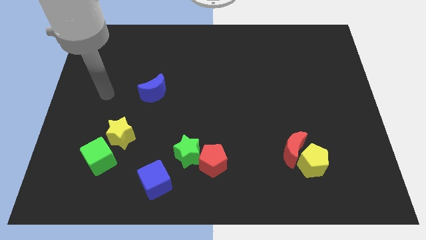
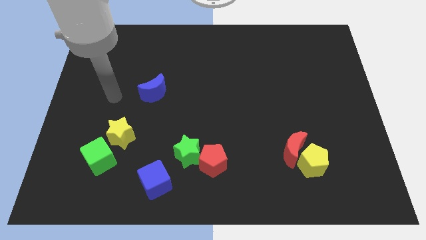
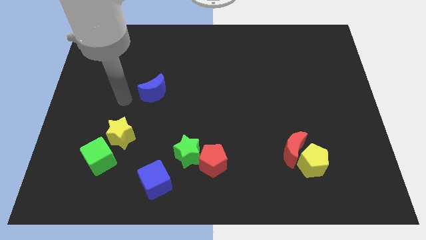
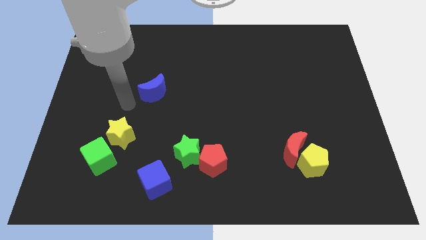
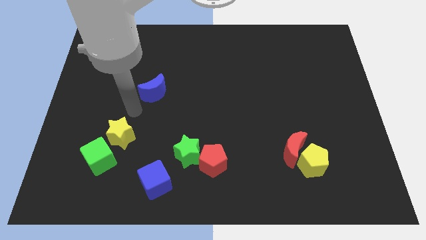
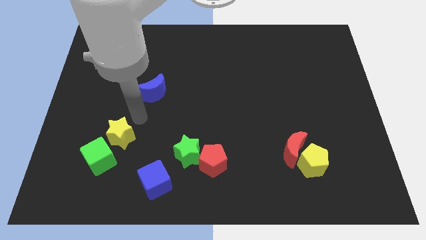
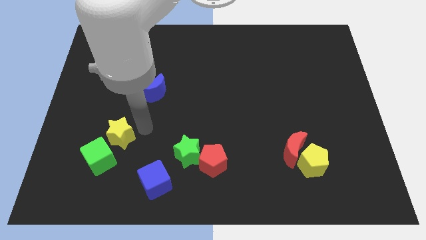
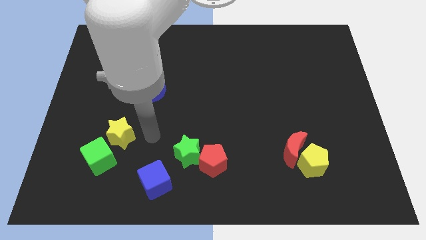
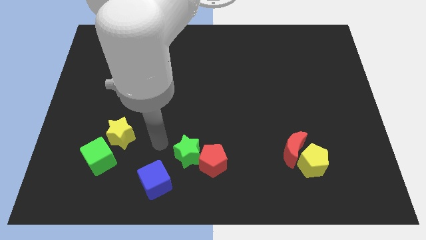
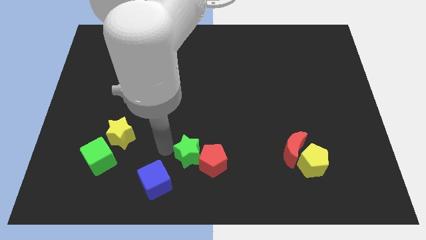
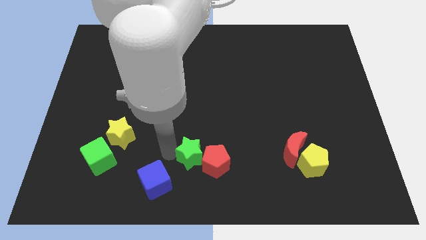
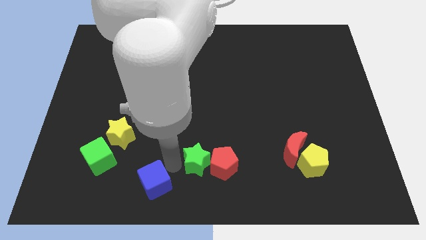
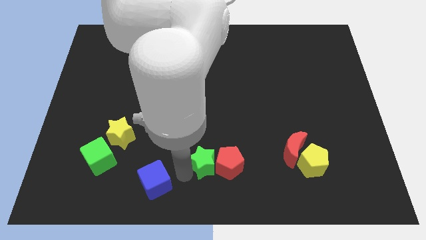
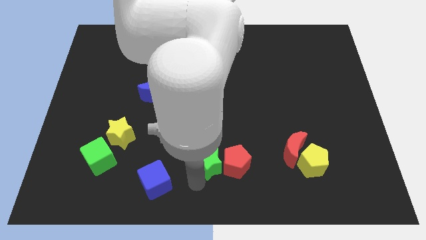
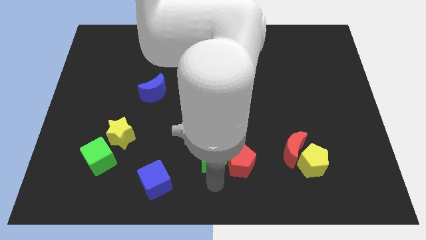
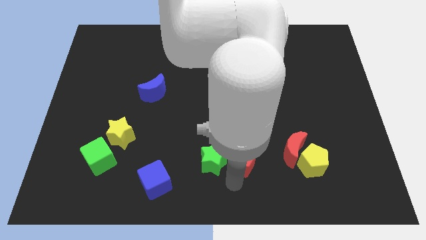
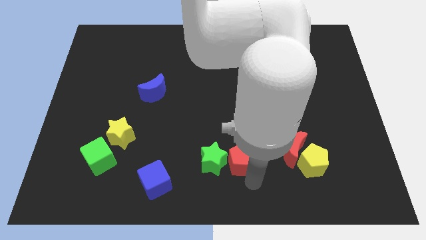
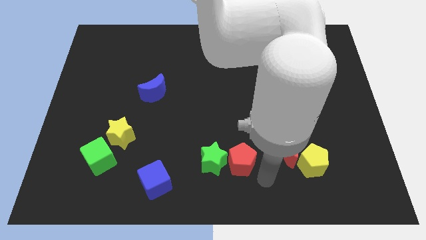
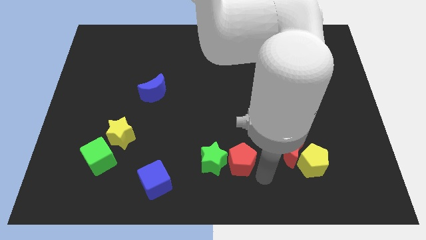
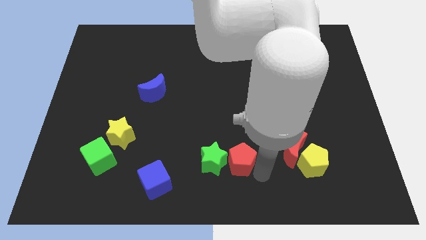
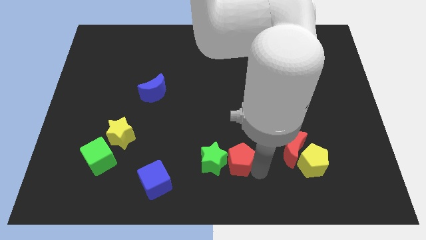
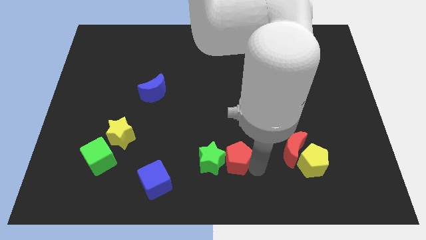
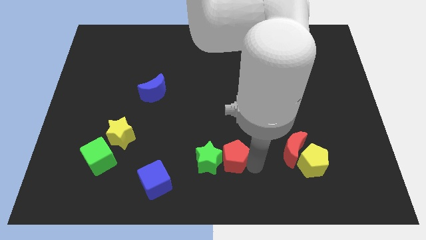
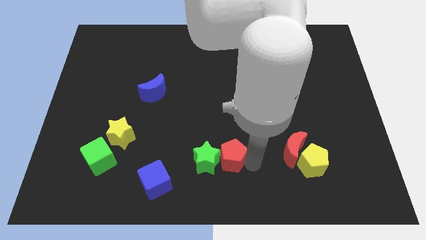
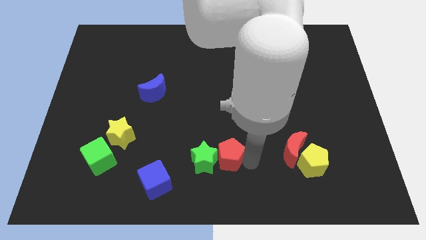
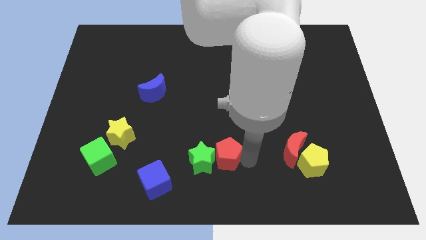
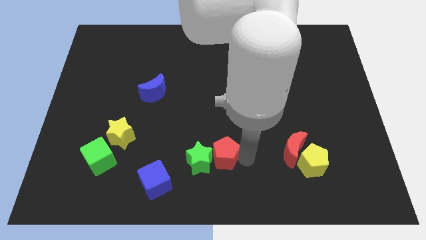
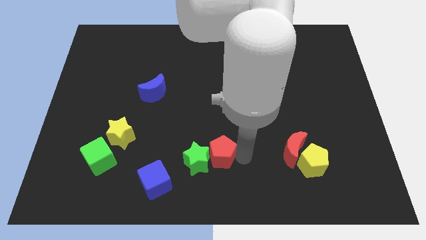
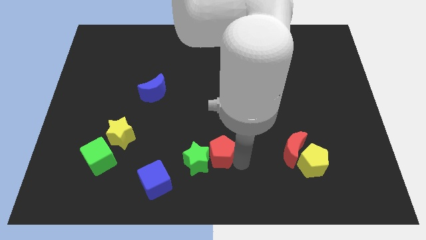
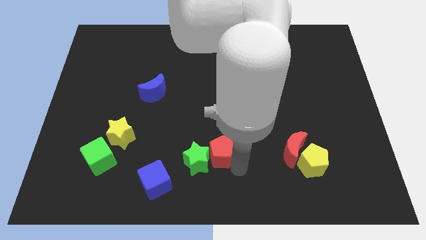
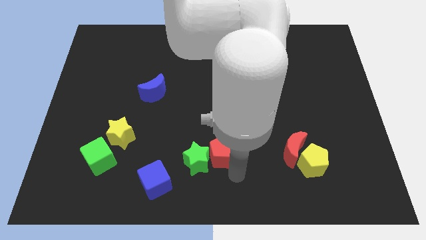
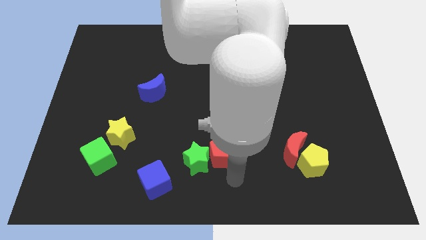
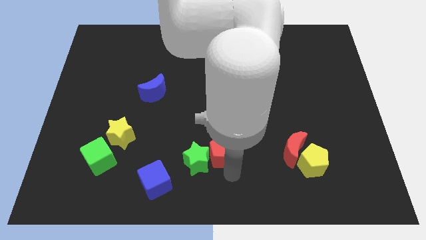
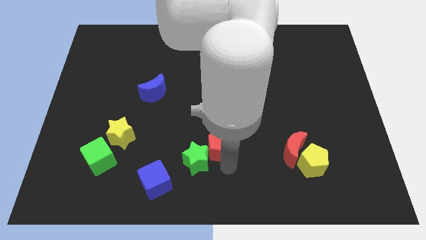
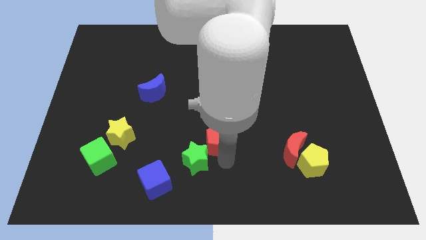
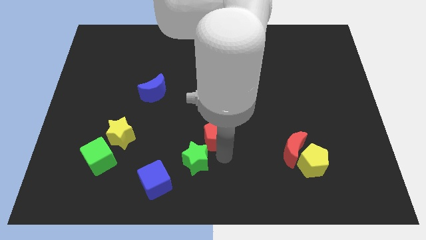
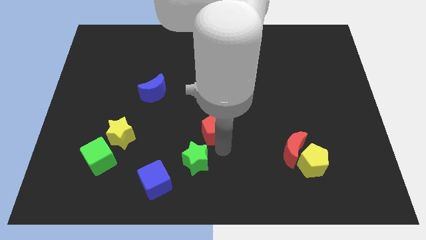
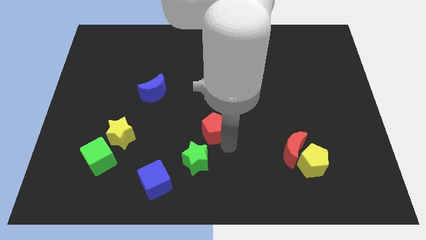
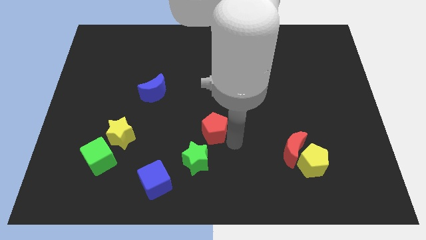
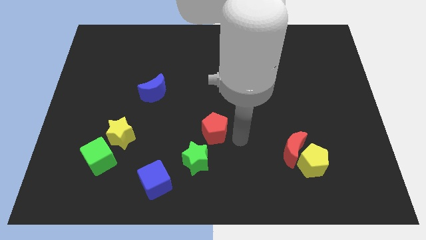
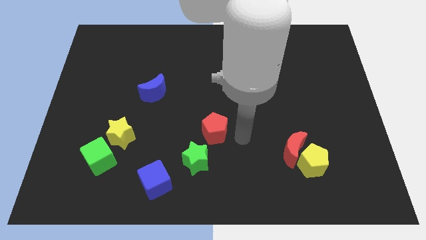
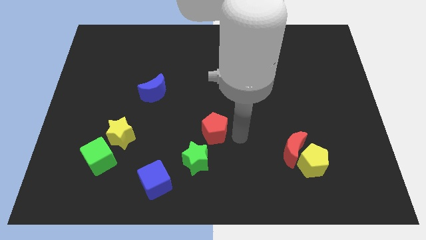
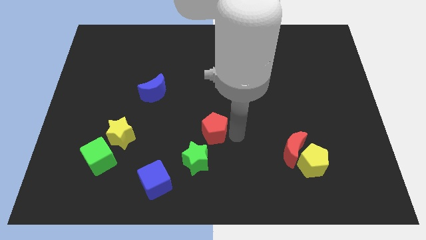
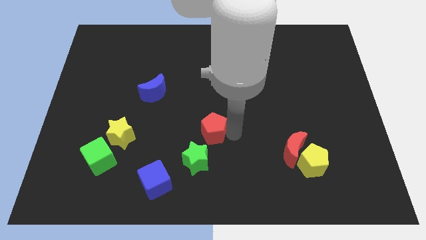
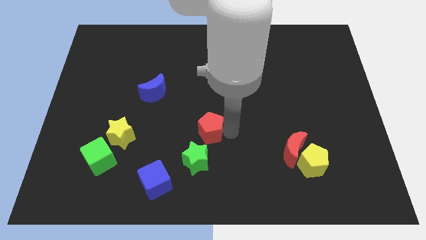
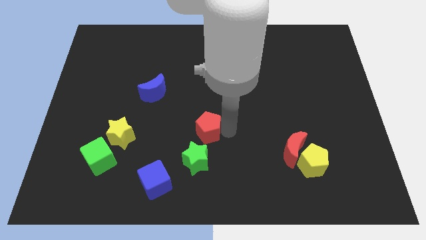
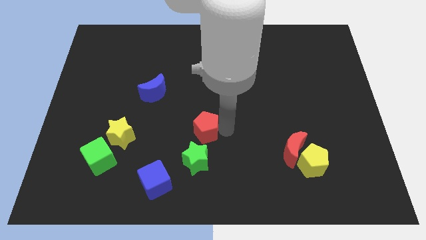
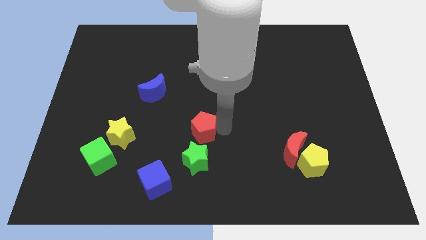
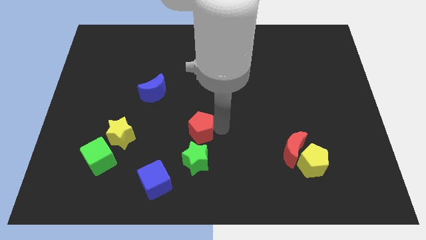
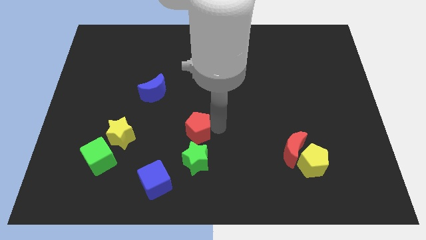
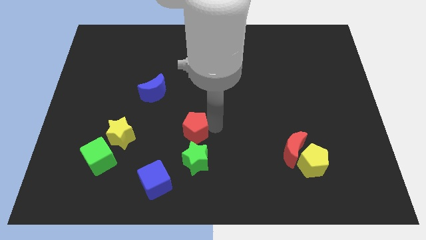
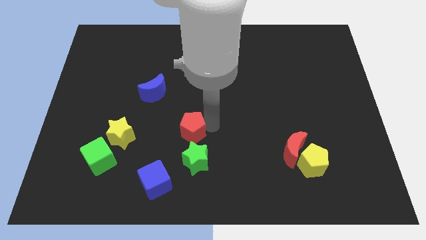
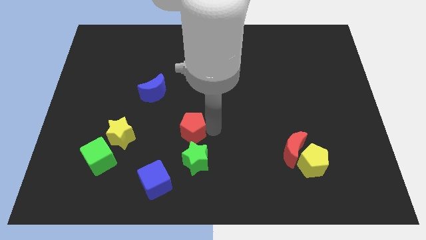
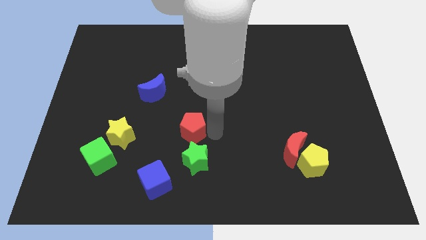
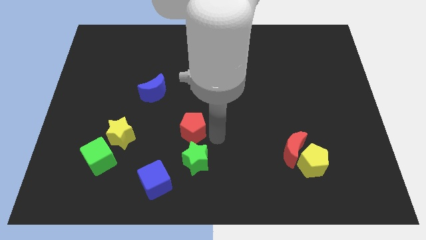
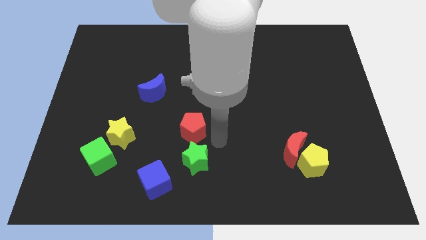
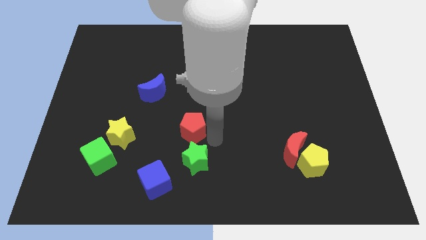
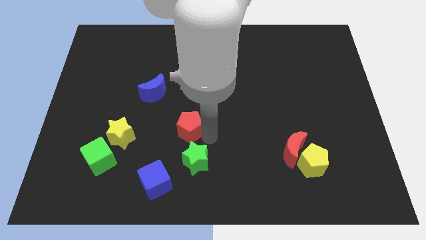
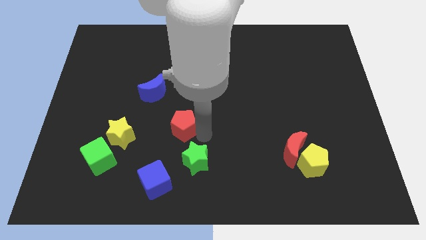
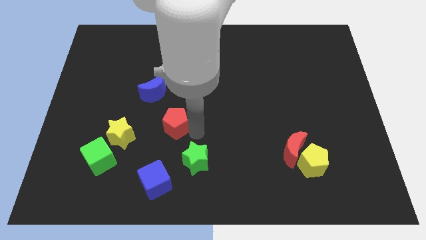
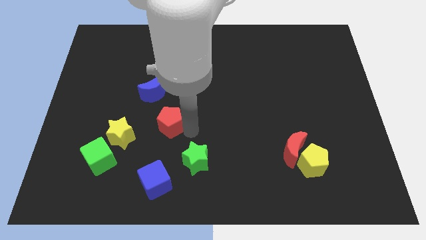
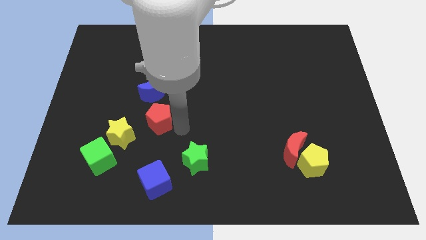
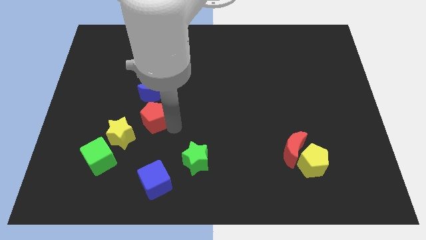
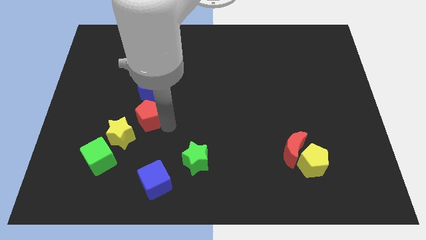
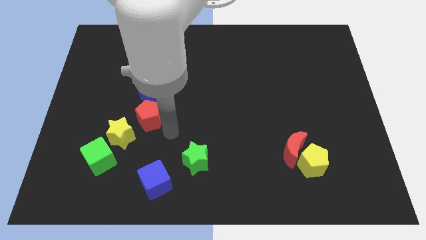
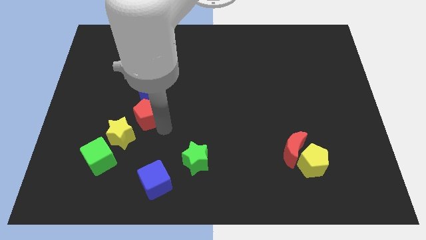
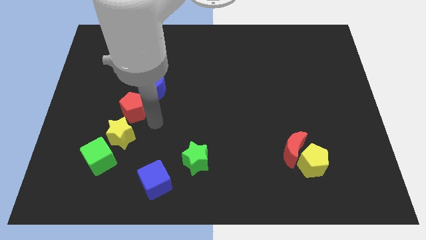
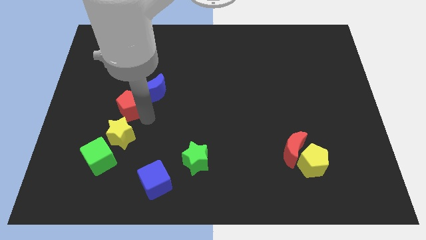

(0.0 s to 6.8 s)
slide the red pentagon left of the blue moon

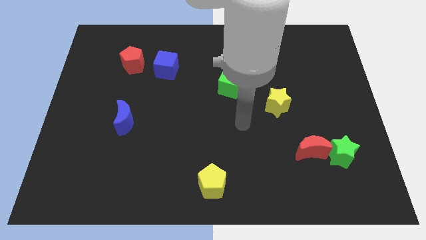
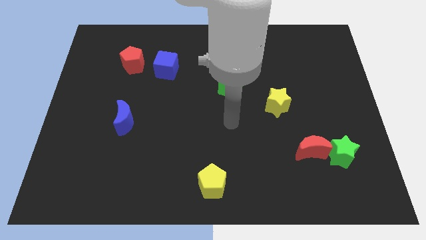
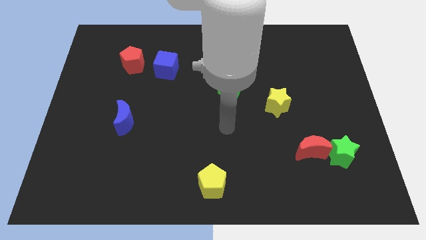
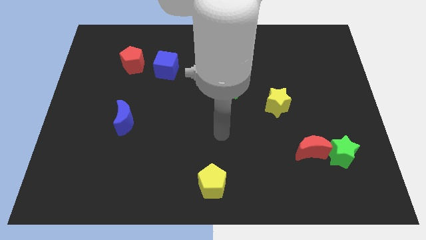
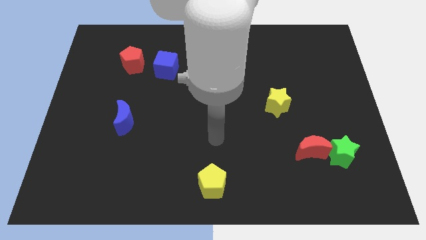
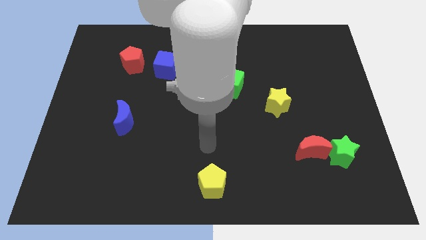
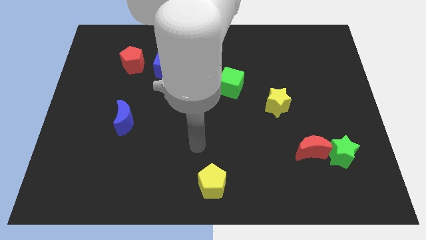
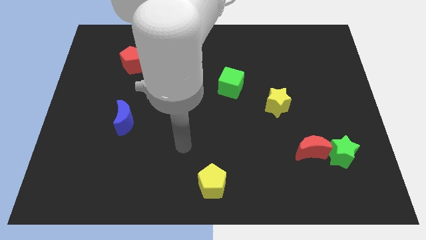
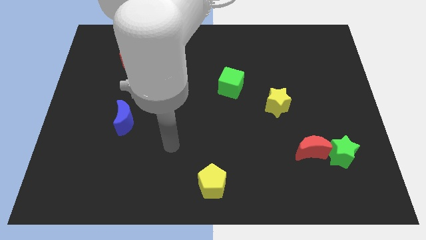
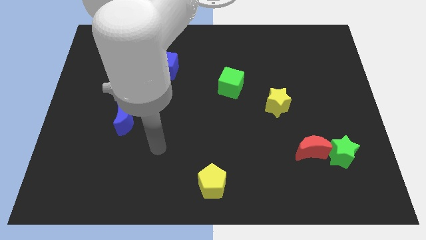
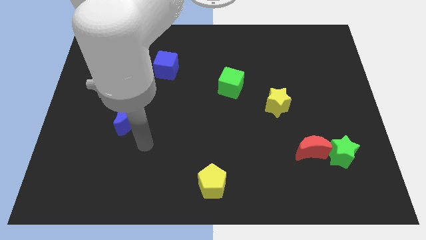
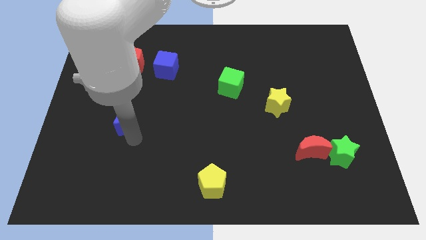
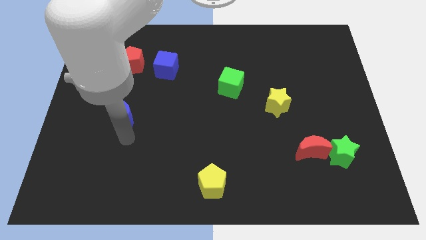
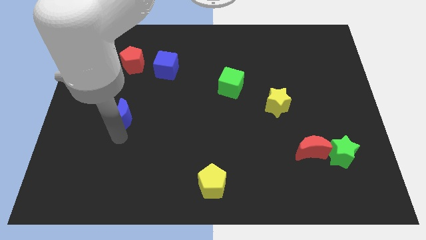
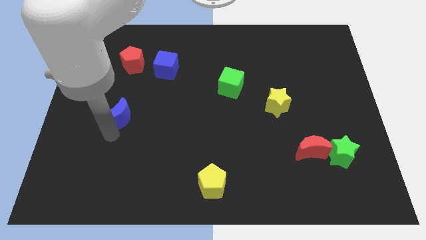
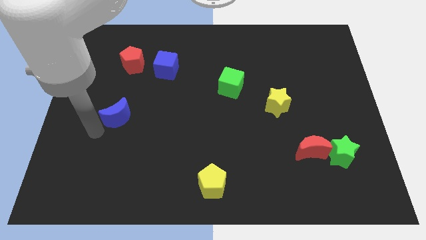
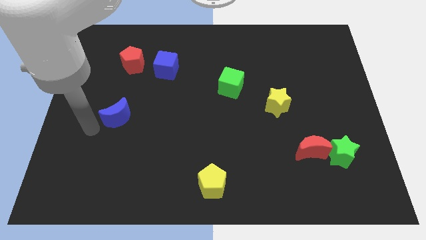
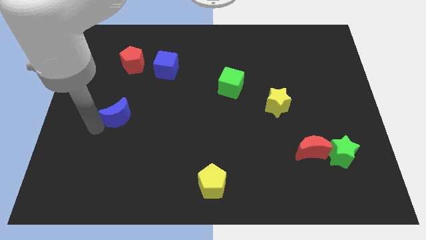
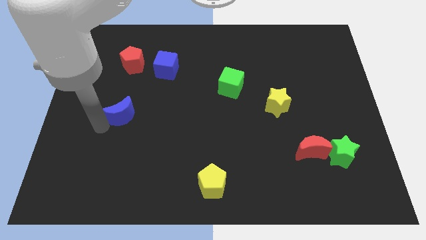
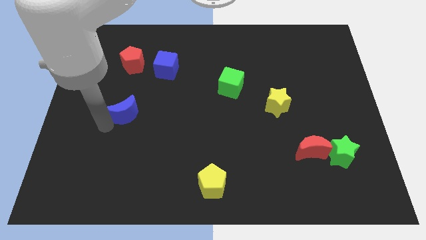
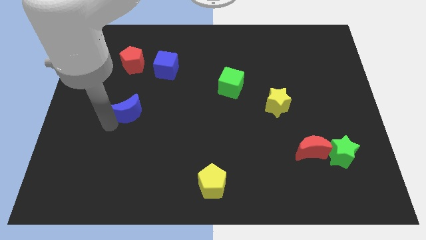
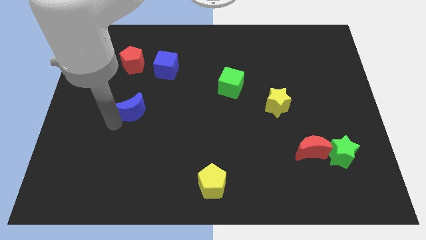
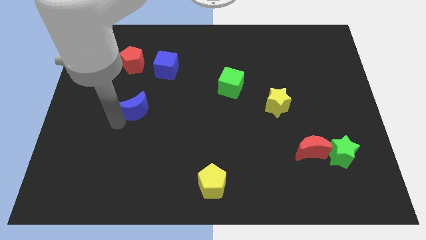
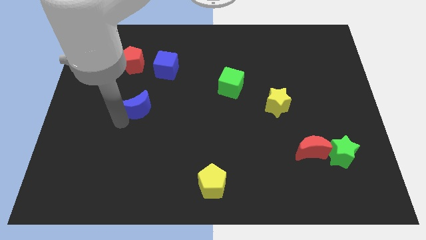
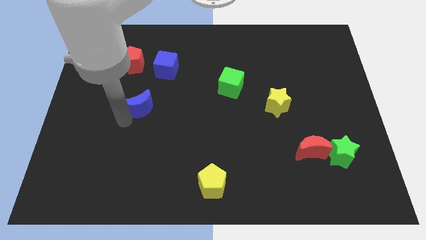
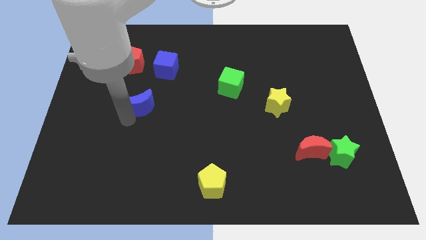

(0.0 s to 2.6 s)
slide the blue moon to the bottom side of the blue cube
